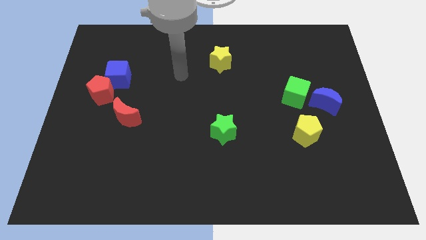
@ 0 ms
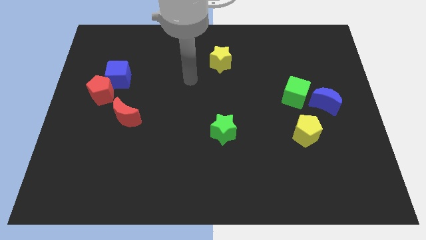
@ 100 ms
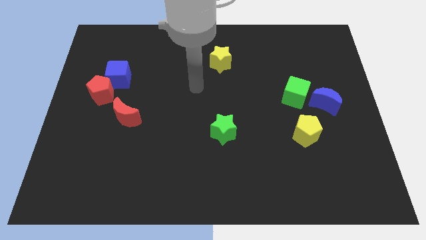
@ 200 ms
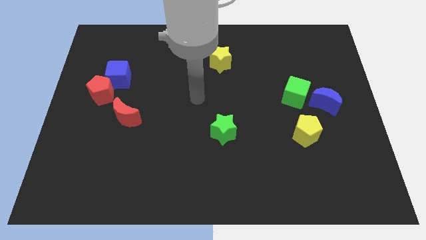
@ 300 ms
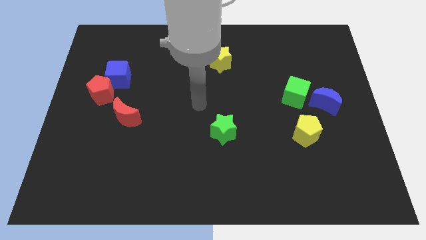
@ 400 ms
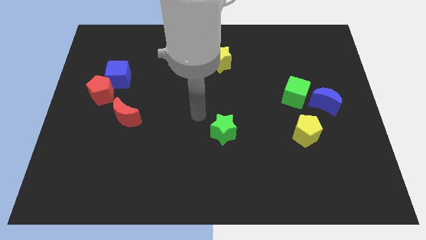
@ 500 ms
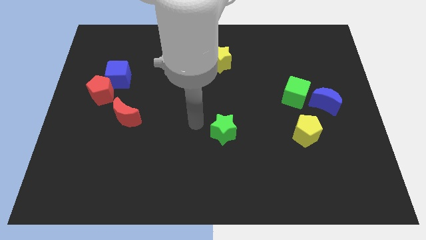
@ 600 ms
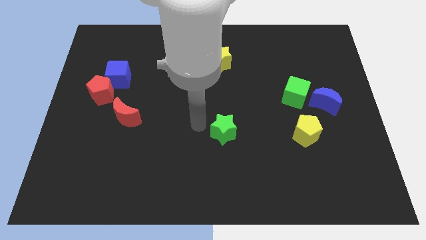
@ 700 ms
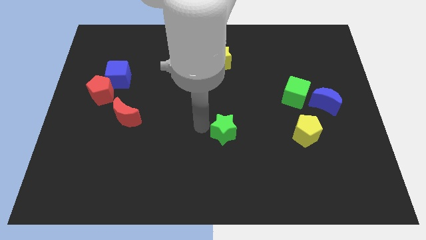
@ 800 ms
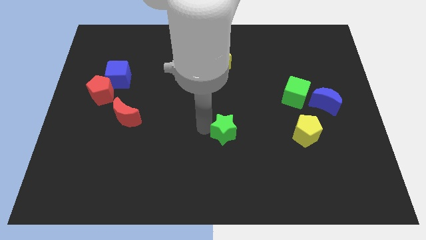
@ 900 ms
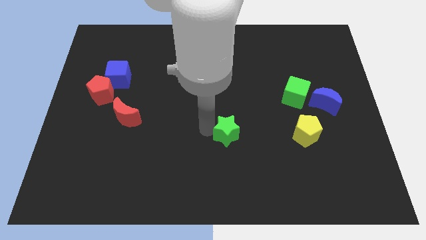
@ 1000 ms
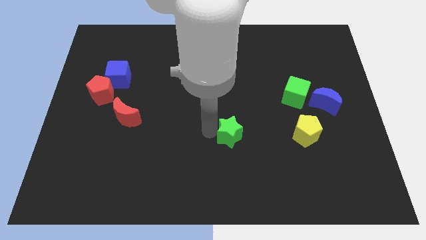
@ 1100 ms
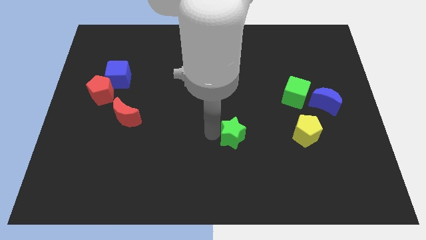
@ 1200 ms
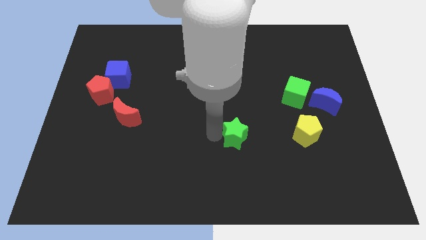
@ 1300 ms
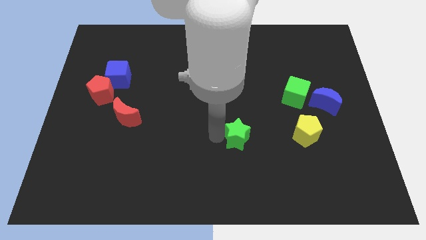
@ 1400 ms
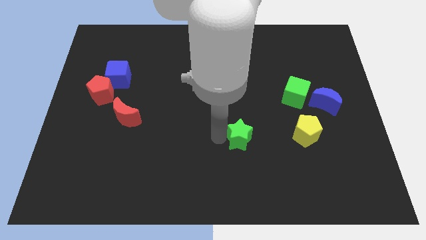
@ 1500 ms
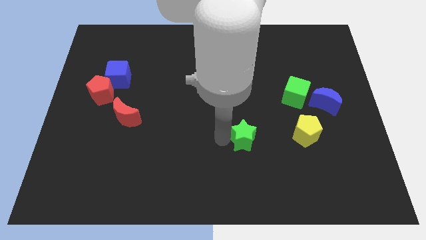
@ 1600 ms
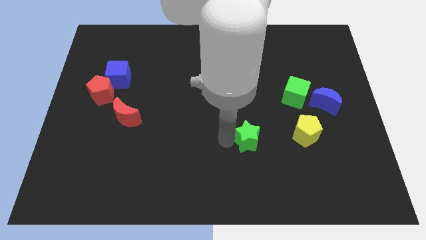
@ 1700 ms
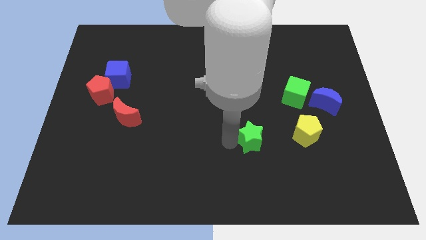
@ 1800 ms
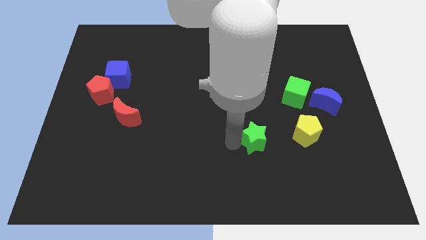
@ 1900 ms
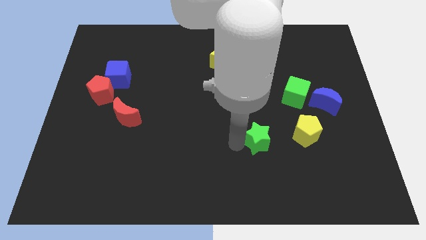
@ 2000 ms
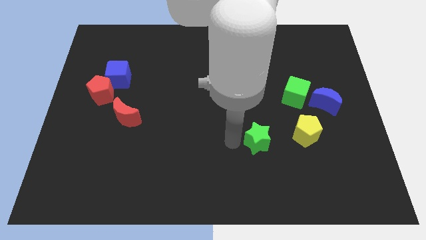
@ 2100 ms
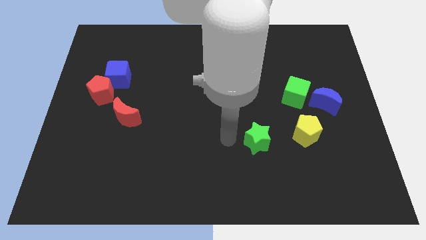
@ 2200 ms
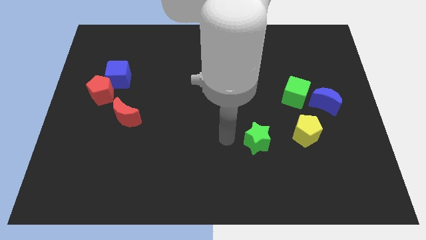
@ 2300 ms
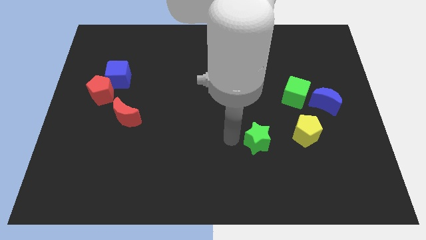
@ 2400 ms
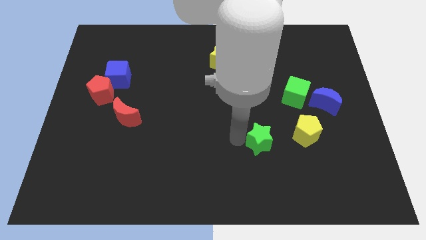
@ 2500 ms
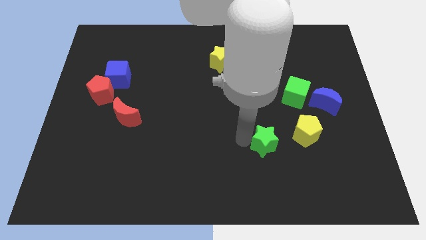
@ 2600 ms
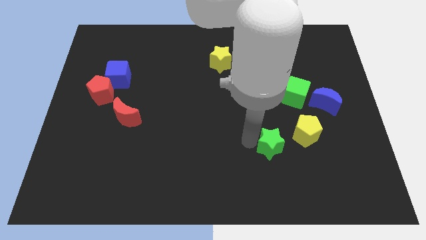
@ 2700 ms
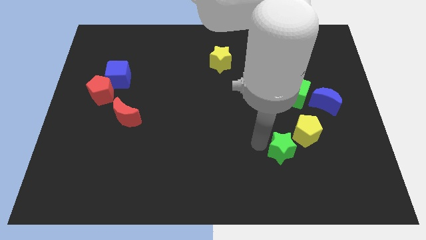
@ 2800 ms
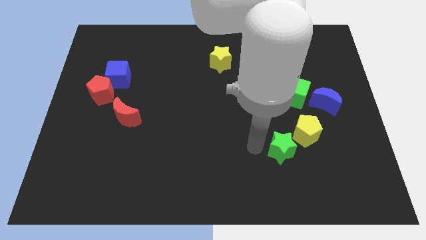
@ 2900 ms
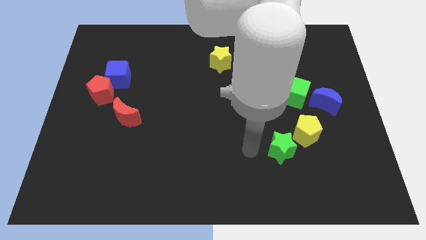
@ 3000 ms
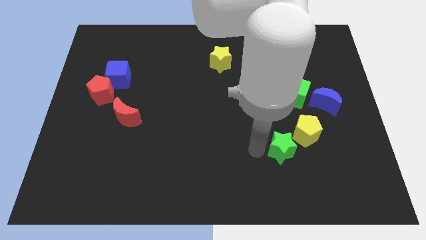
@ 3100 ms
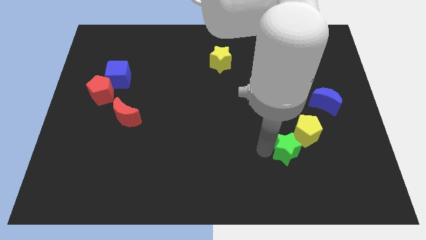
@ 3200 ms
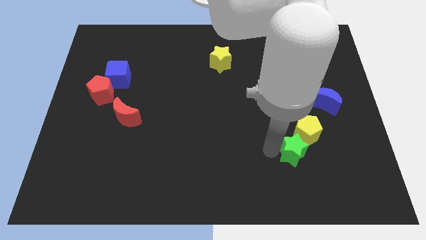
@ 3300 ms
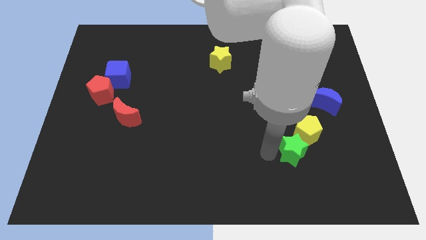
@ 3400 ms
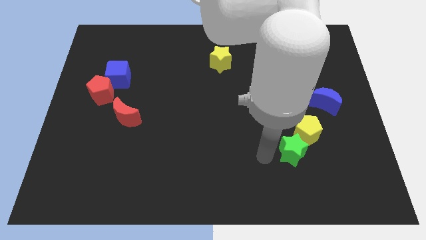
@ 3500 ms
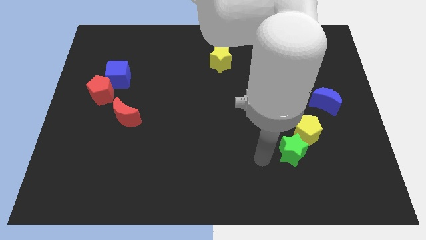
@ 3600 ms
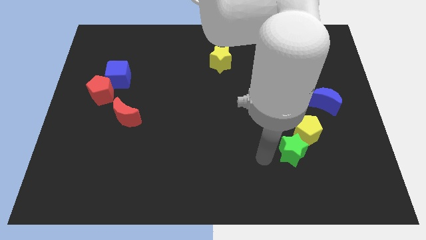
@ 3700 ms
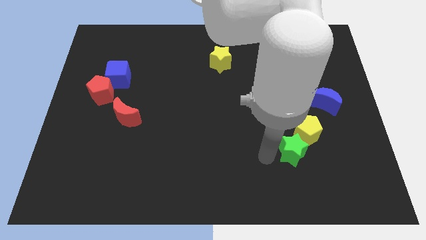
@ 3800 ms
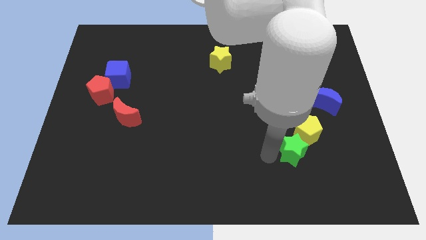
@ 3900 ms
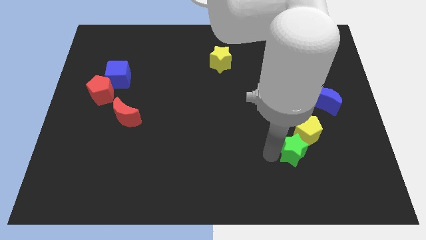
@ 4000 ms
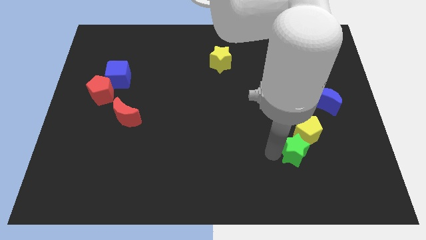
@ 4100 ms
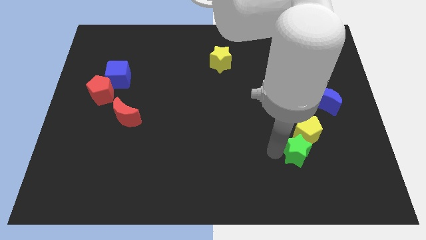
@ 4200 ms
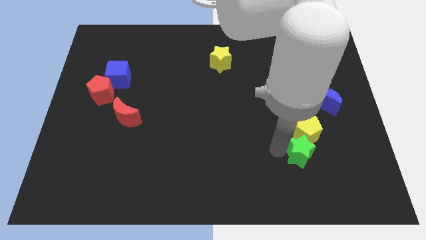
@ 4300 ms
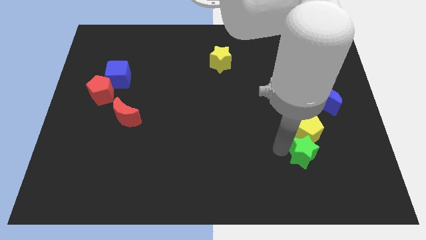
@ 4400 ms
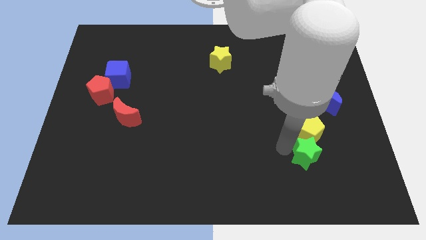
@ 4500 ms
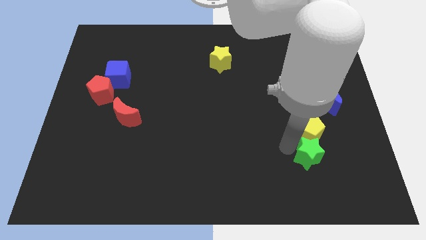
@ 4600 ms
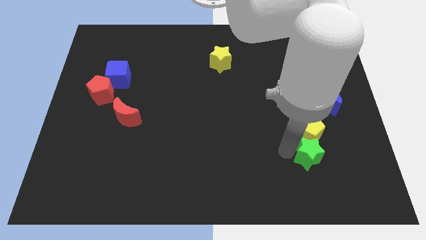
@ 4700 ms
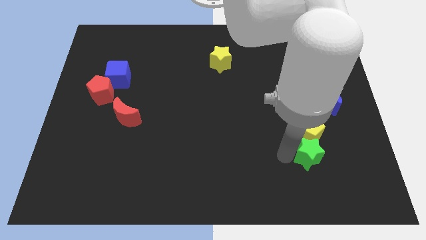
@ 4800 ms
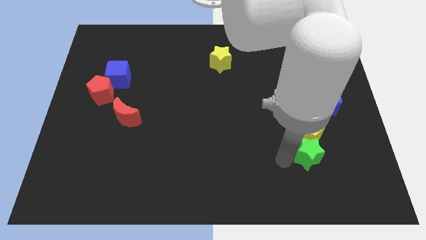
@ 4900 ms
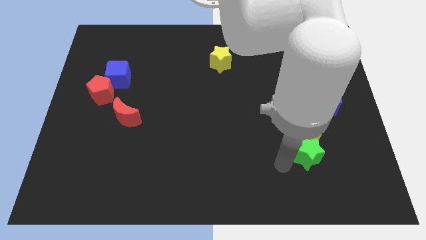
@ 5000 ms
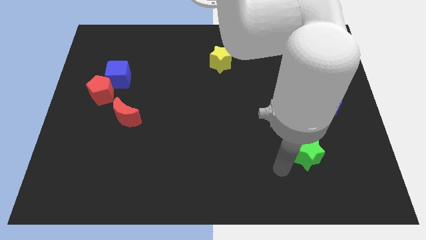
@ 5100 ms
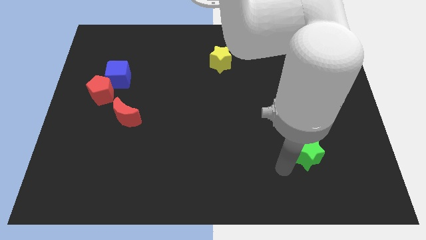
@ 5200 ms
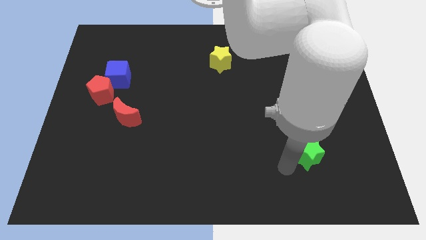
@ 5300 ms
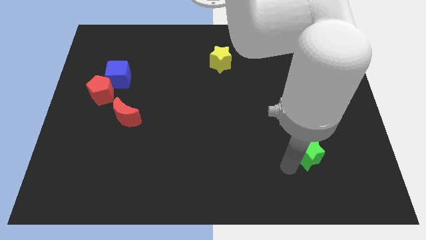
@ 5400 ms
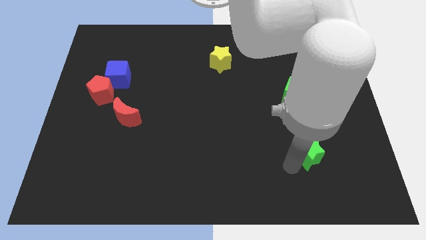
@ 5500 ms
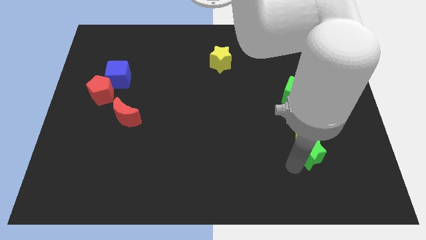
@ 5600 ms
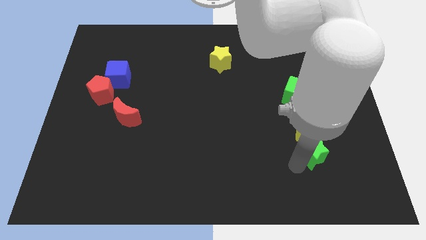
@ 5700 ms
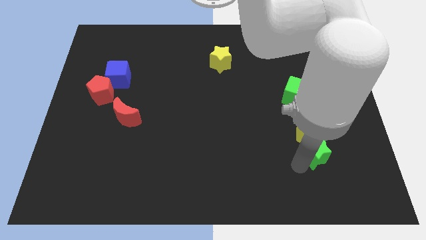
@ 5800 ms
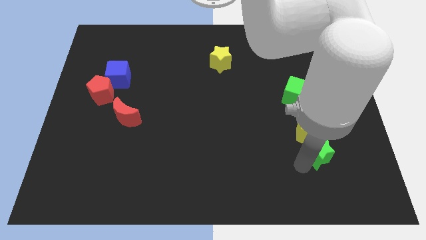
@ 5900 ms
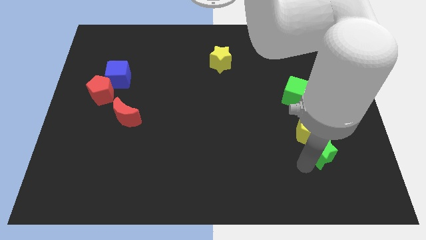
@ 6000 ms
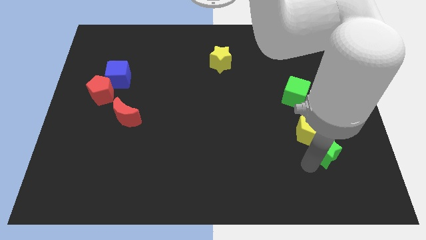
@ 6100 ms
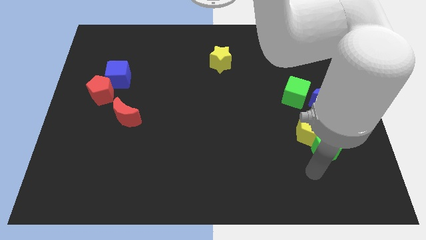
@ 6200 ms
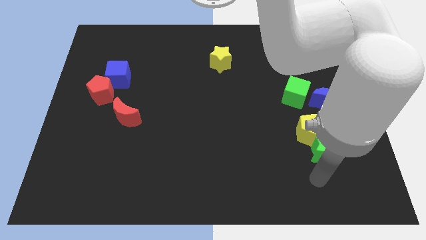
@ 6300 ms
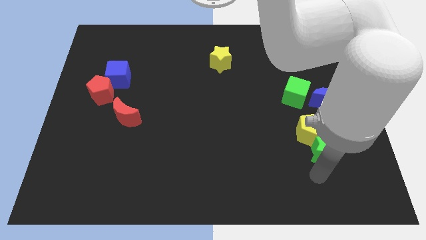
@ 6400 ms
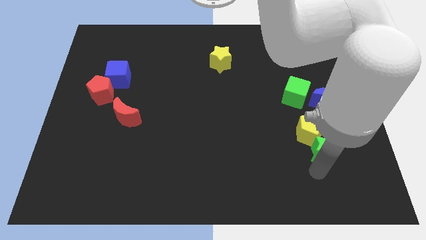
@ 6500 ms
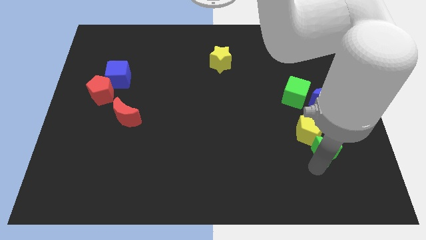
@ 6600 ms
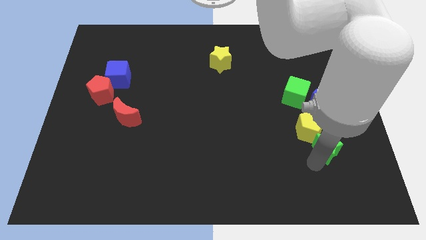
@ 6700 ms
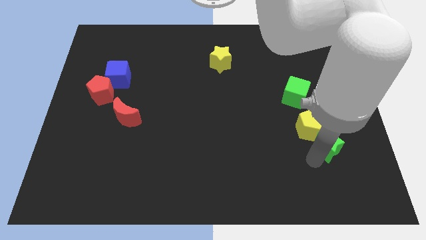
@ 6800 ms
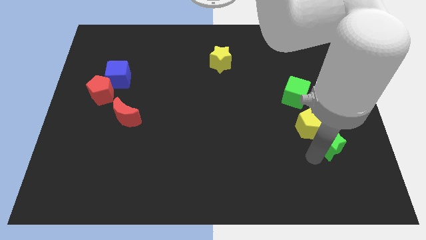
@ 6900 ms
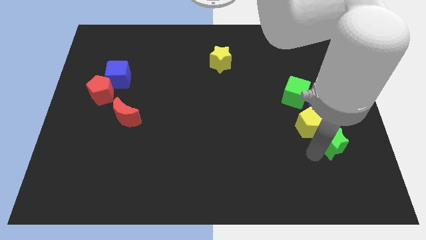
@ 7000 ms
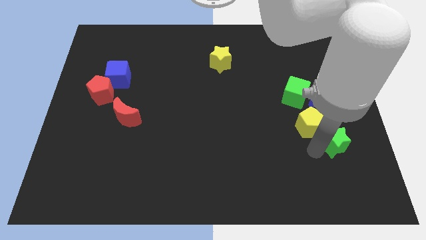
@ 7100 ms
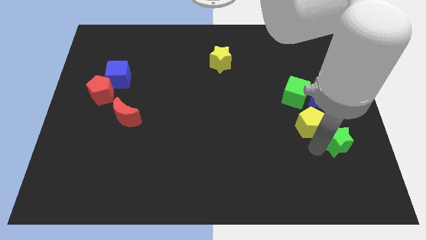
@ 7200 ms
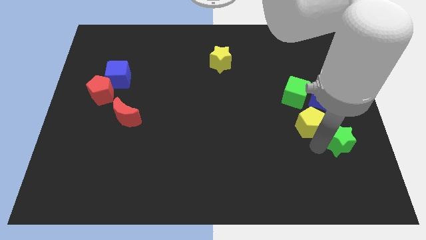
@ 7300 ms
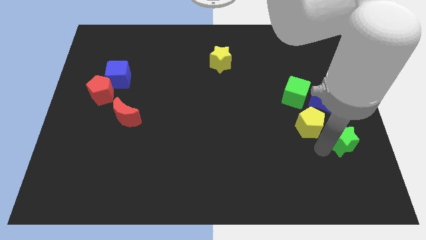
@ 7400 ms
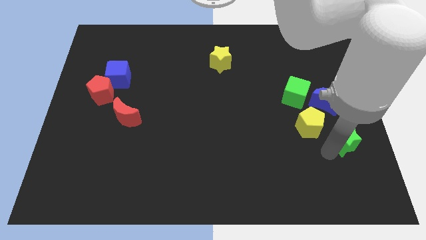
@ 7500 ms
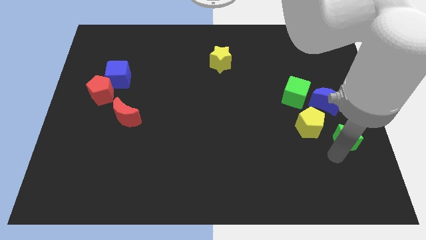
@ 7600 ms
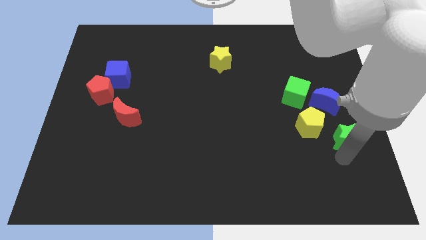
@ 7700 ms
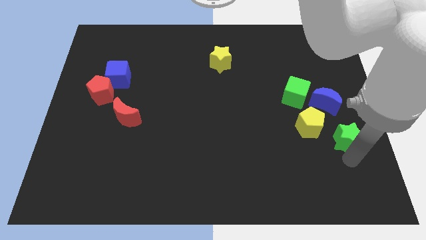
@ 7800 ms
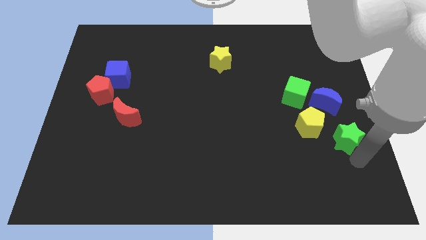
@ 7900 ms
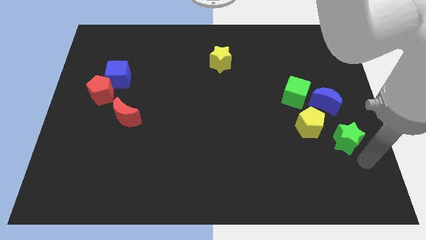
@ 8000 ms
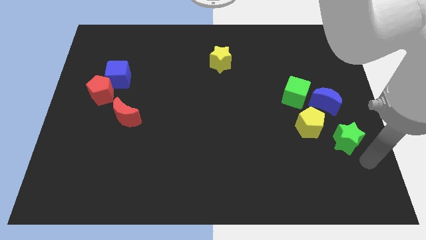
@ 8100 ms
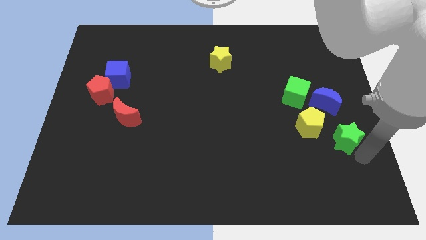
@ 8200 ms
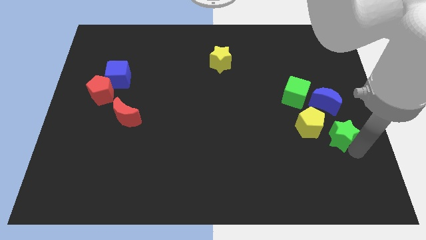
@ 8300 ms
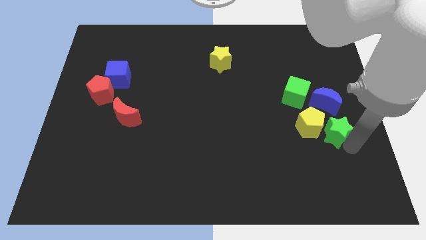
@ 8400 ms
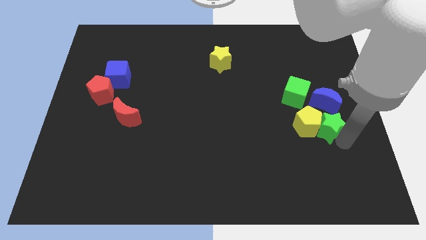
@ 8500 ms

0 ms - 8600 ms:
slide the green star to the bottom right of the green cube
